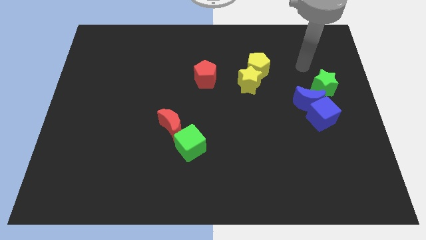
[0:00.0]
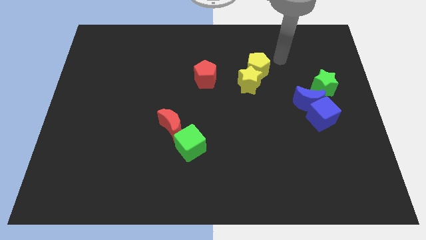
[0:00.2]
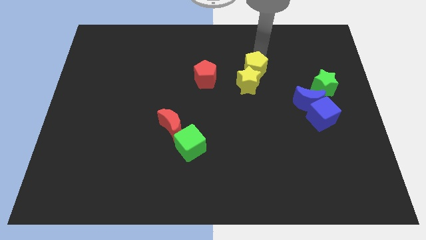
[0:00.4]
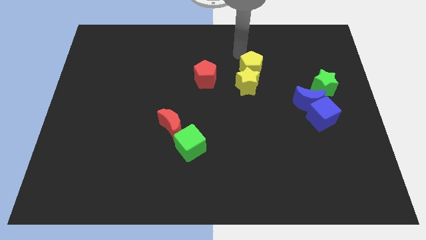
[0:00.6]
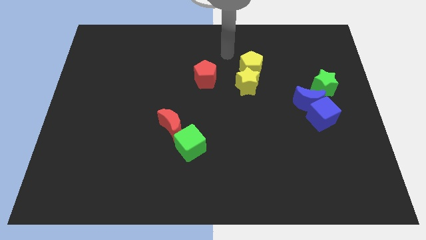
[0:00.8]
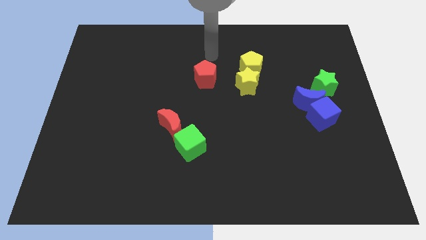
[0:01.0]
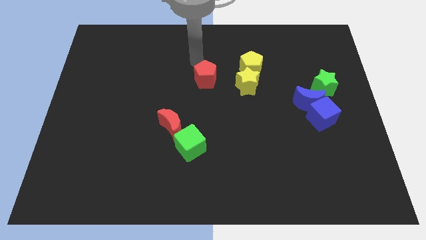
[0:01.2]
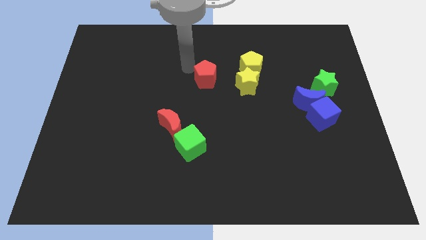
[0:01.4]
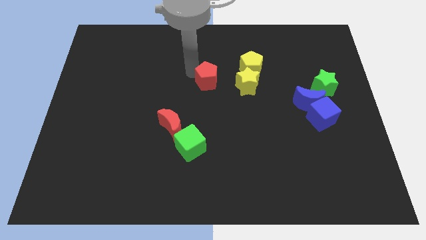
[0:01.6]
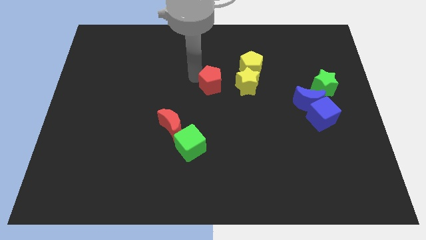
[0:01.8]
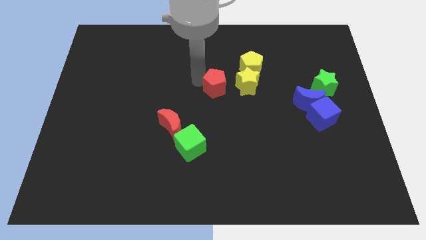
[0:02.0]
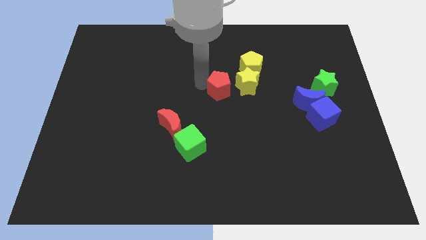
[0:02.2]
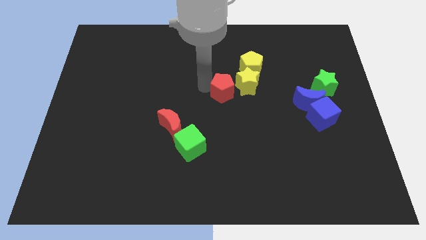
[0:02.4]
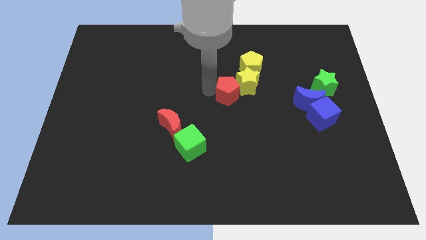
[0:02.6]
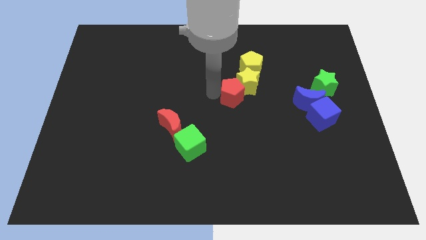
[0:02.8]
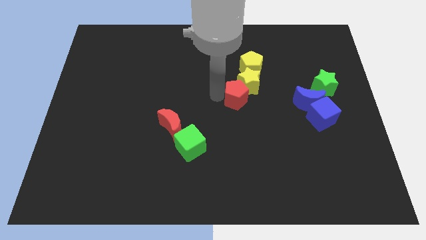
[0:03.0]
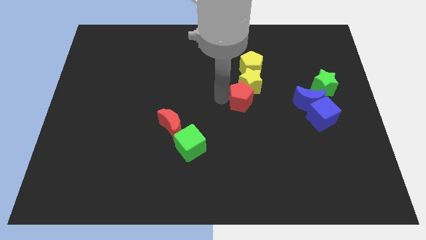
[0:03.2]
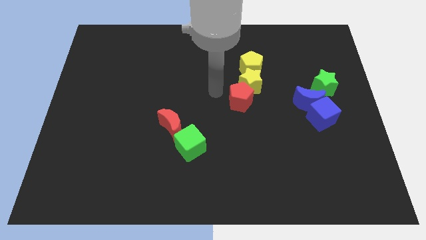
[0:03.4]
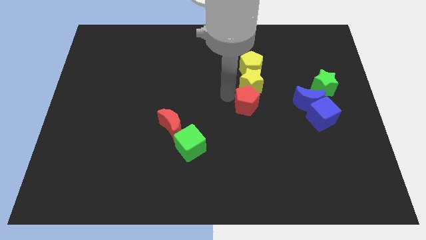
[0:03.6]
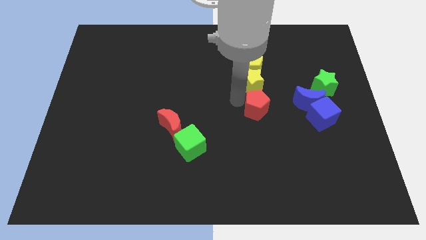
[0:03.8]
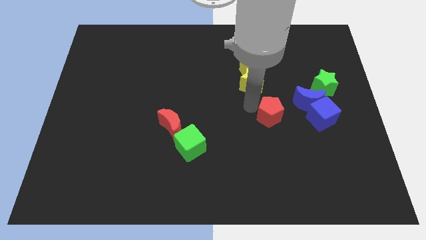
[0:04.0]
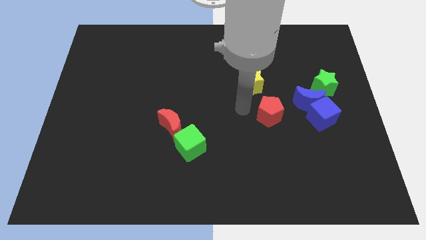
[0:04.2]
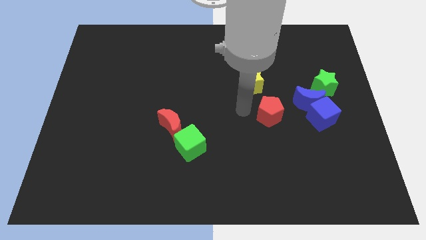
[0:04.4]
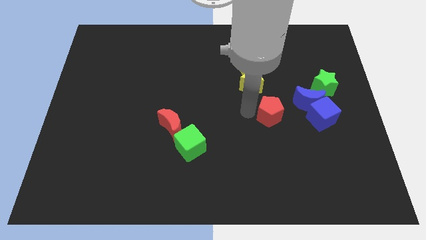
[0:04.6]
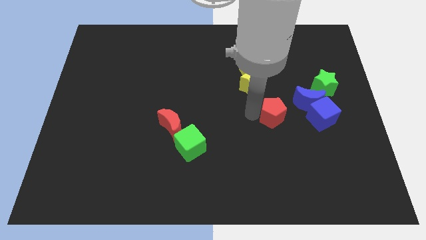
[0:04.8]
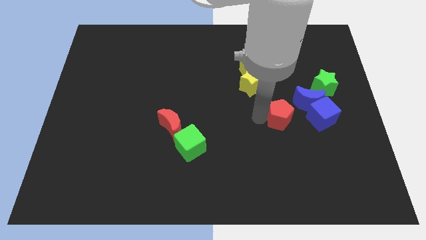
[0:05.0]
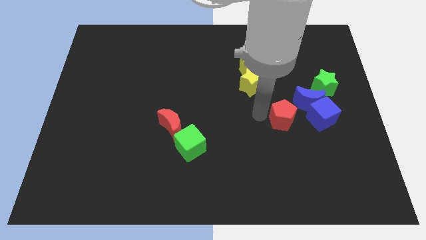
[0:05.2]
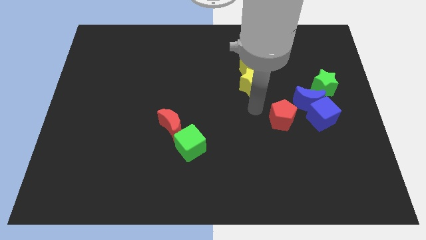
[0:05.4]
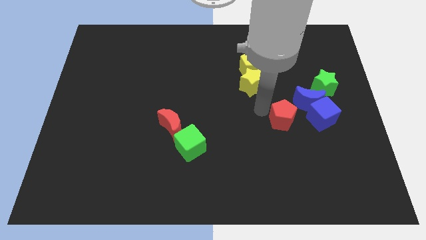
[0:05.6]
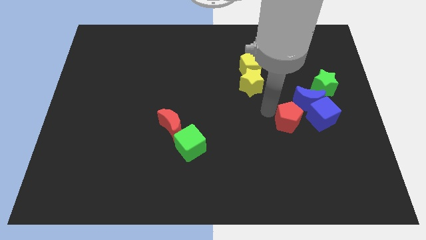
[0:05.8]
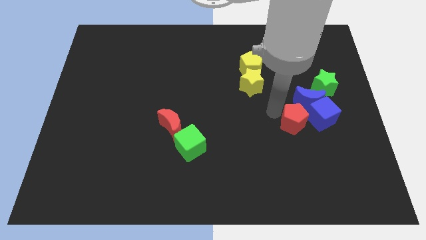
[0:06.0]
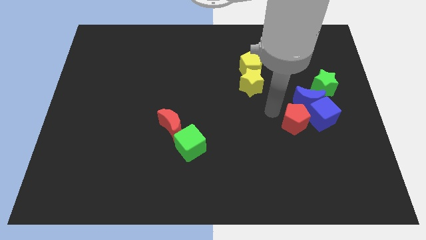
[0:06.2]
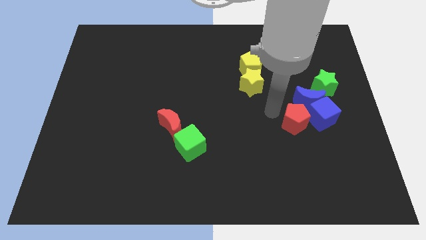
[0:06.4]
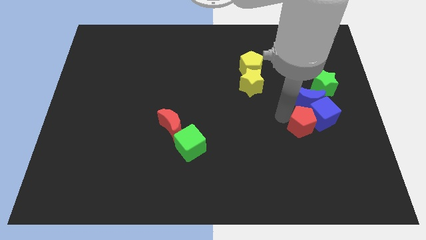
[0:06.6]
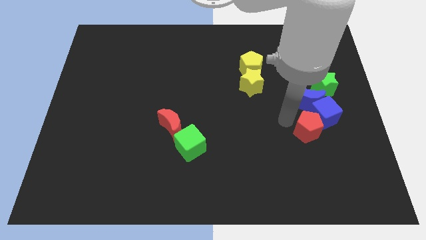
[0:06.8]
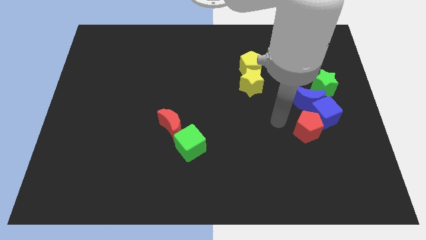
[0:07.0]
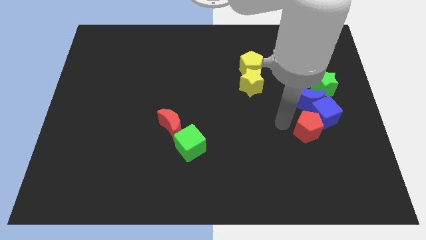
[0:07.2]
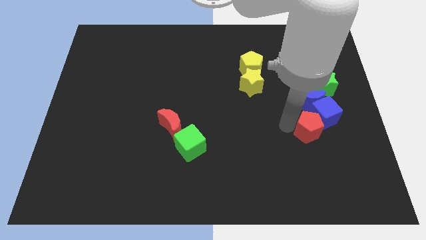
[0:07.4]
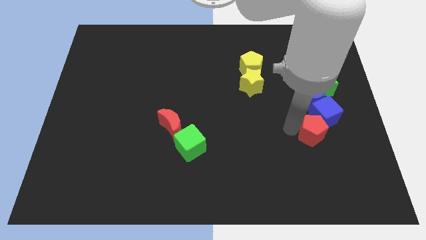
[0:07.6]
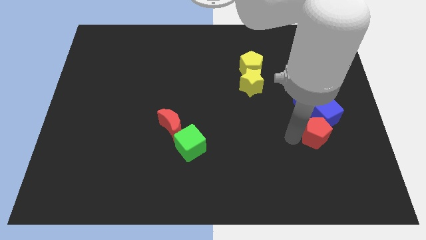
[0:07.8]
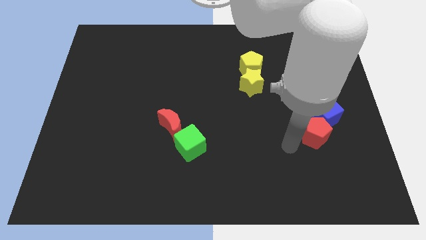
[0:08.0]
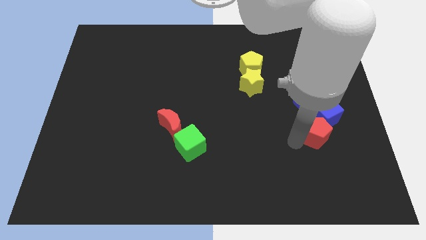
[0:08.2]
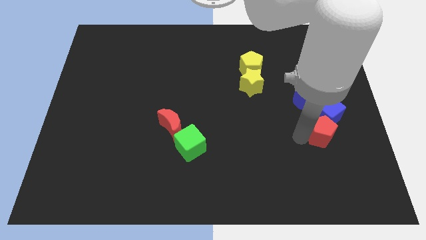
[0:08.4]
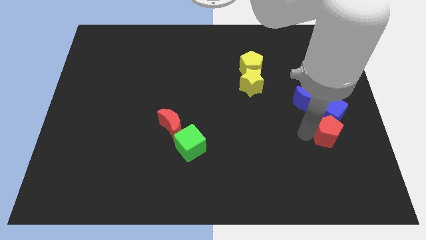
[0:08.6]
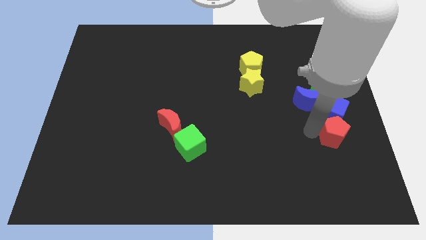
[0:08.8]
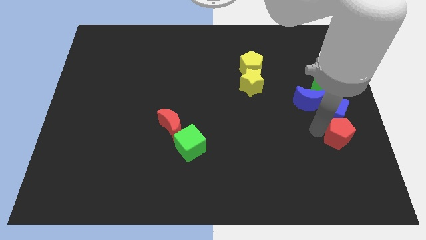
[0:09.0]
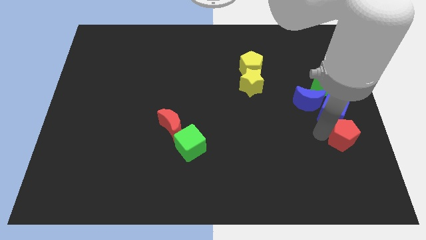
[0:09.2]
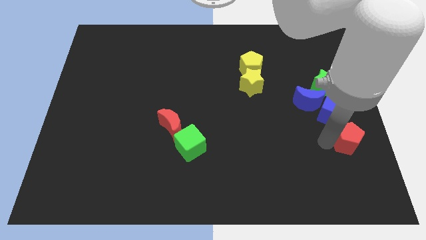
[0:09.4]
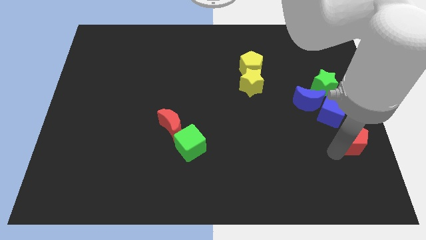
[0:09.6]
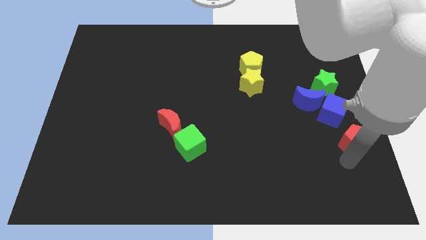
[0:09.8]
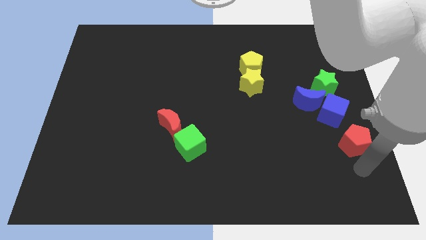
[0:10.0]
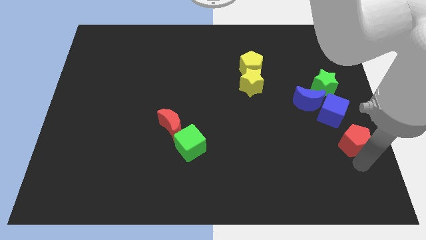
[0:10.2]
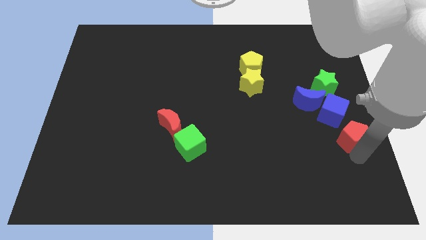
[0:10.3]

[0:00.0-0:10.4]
slide the red pentagon to the right side of the board
